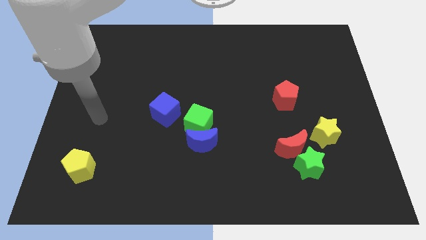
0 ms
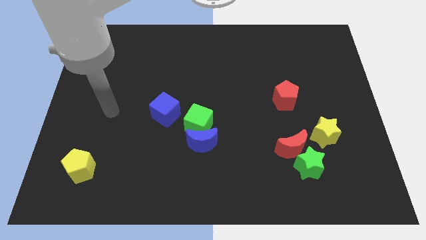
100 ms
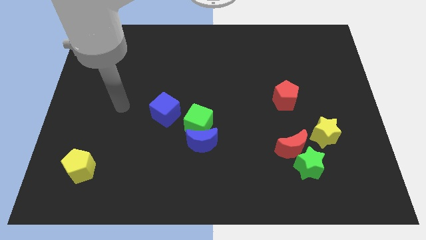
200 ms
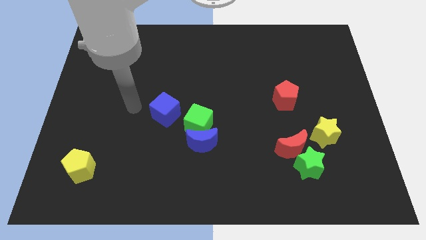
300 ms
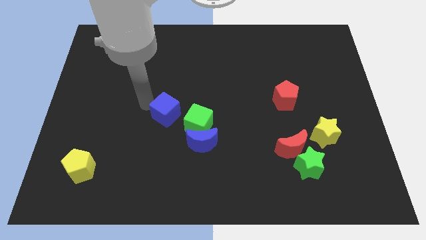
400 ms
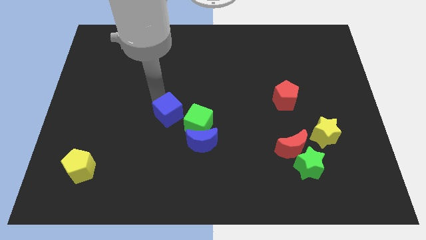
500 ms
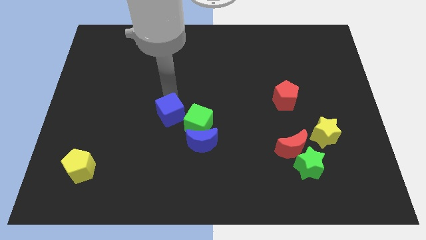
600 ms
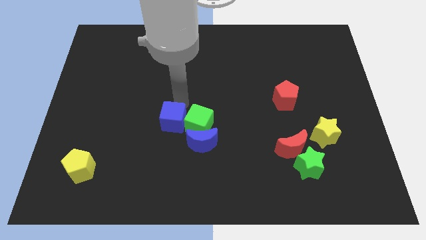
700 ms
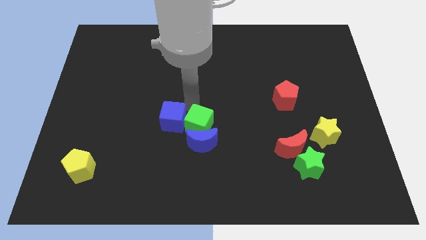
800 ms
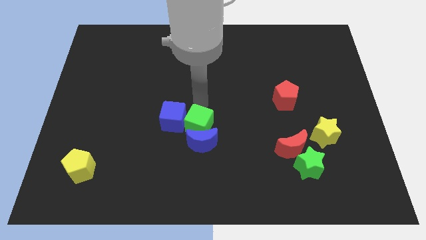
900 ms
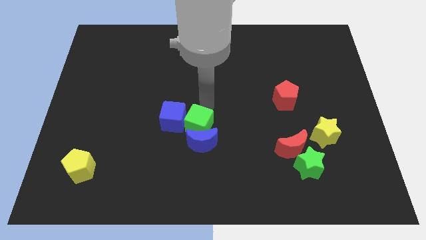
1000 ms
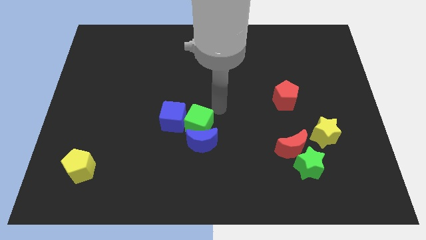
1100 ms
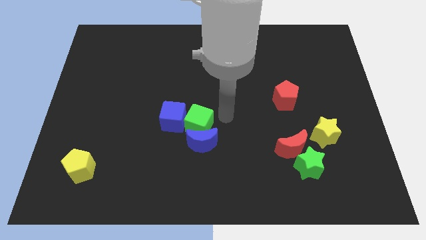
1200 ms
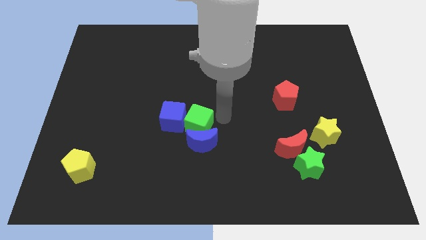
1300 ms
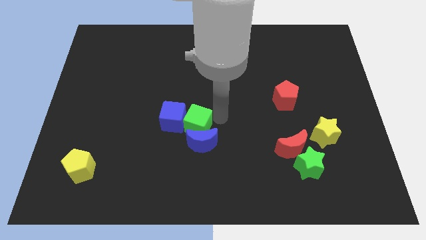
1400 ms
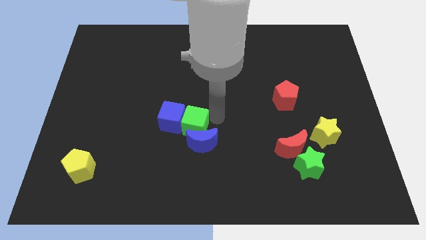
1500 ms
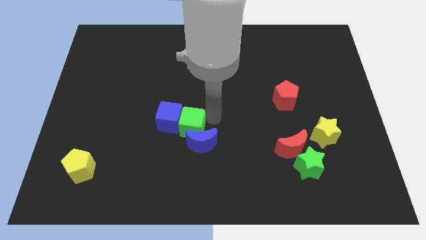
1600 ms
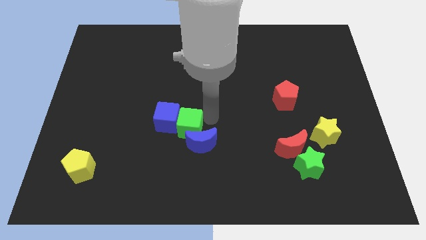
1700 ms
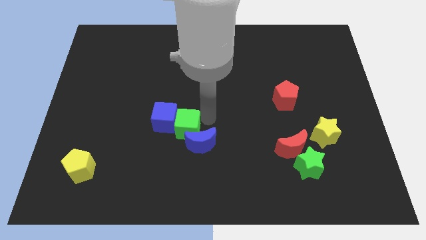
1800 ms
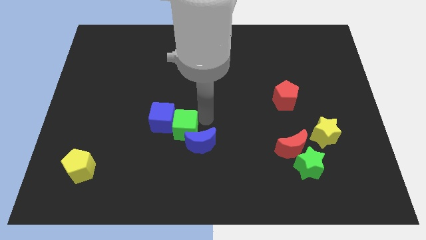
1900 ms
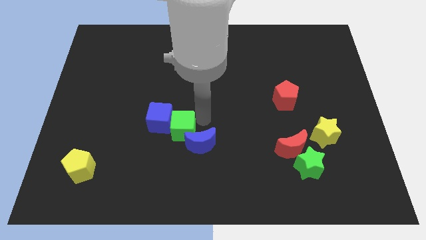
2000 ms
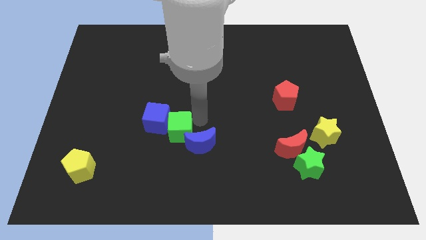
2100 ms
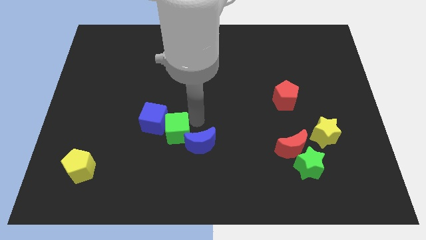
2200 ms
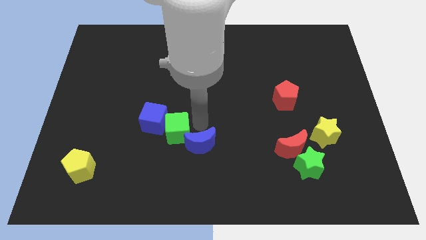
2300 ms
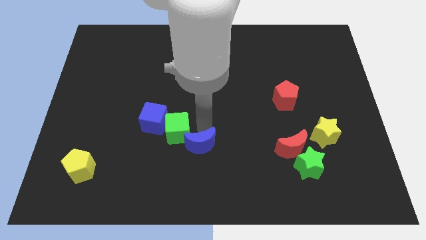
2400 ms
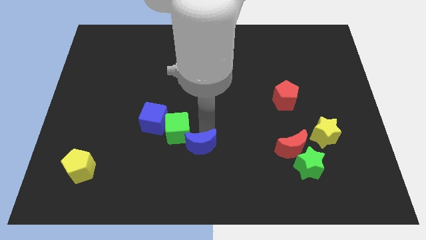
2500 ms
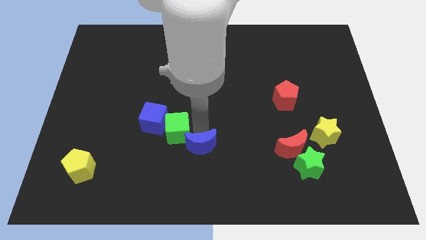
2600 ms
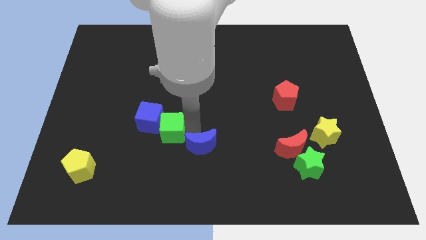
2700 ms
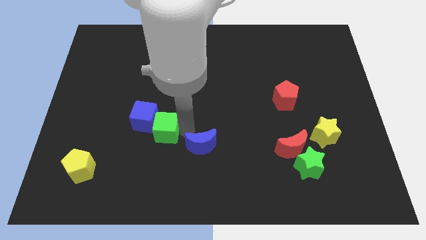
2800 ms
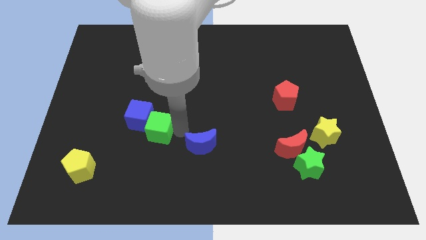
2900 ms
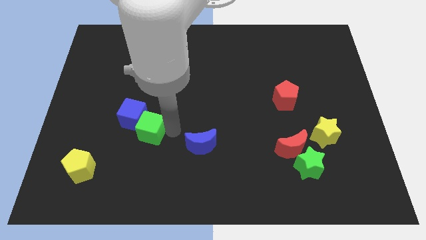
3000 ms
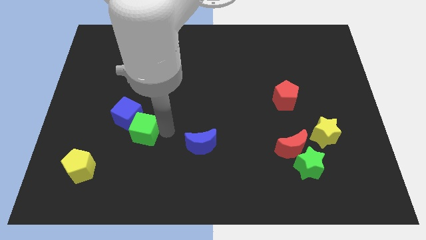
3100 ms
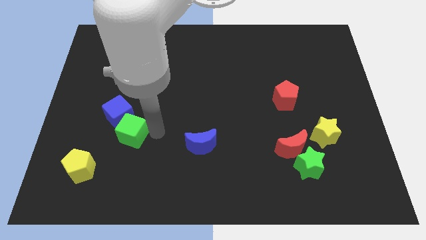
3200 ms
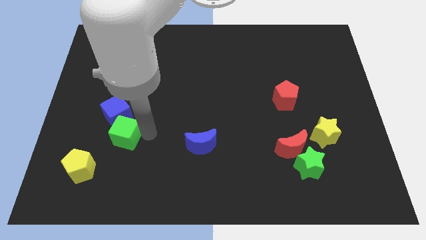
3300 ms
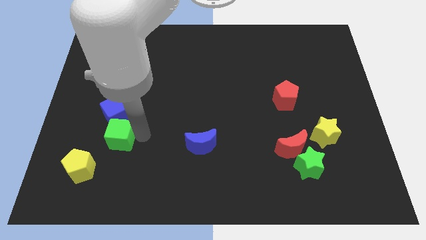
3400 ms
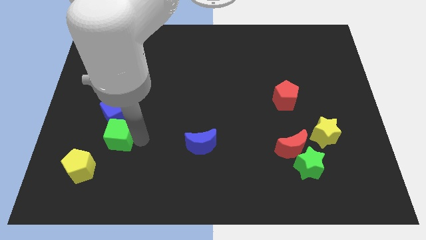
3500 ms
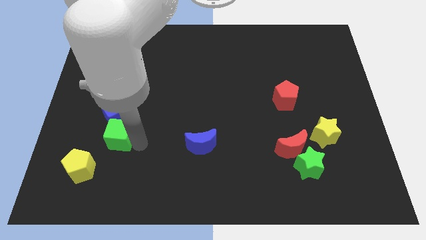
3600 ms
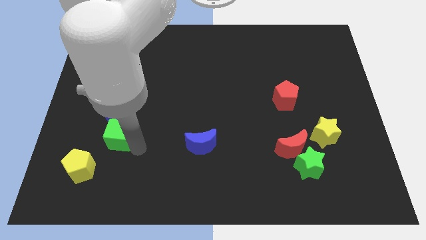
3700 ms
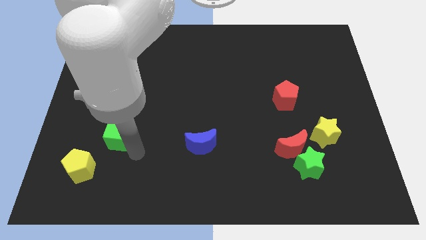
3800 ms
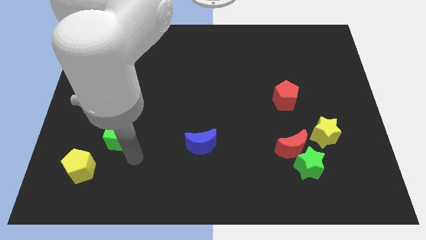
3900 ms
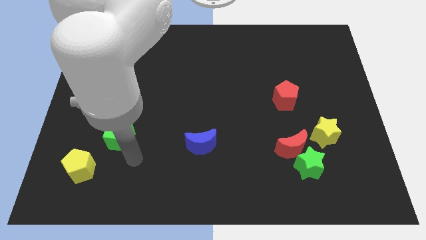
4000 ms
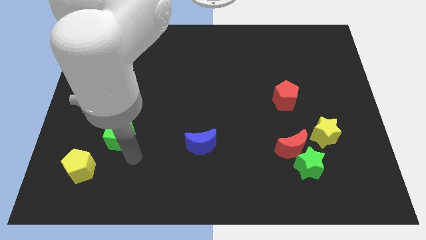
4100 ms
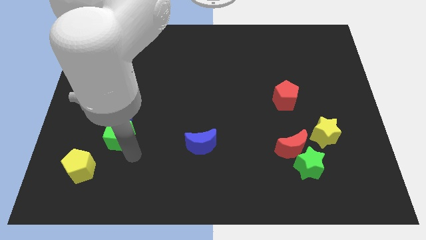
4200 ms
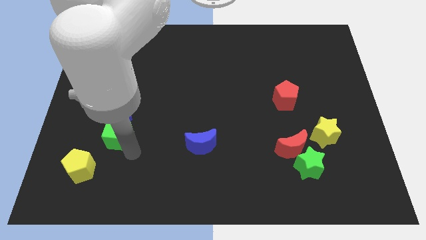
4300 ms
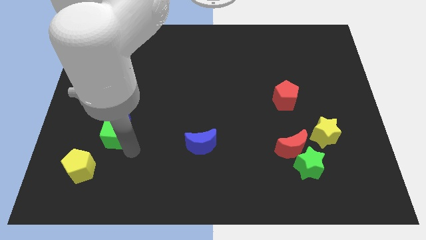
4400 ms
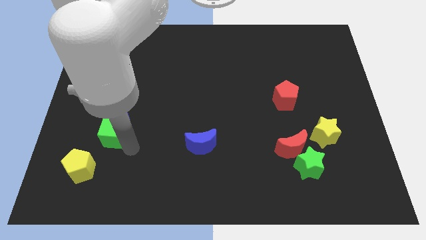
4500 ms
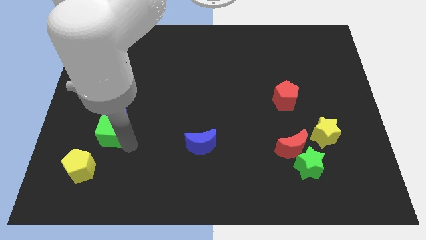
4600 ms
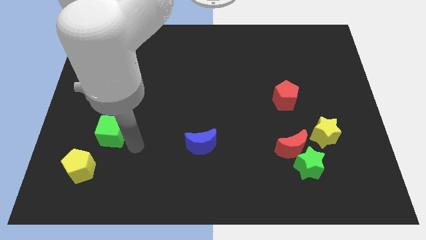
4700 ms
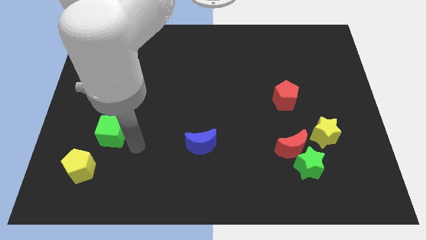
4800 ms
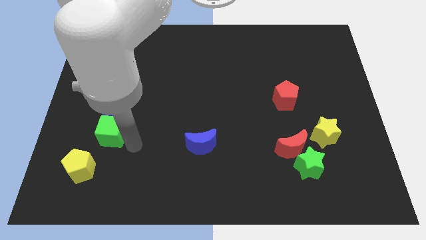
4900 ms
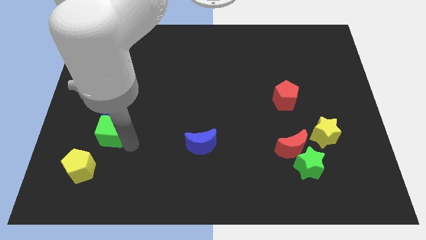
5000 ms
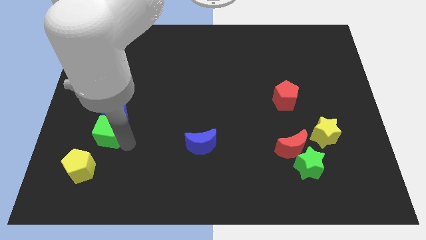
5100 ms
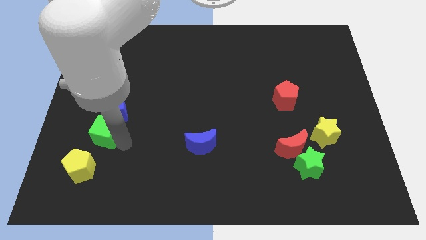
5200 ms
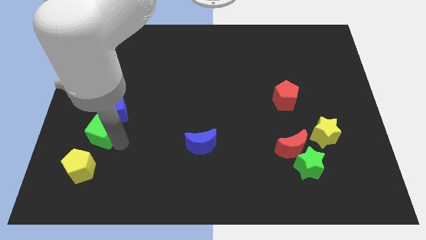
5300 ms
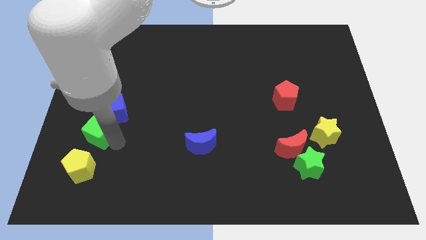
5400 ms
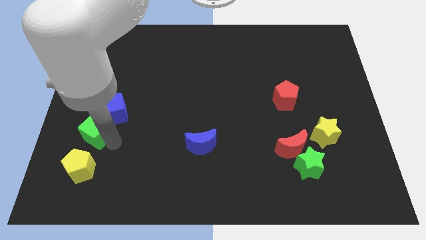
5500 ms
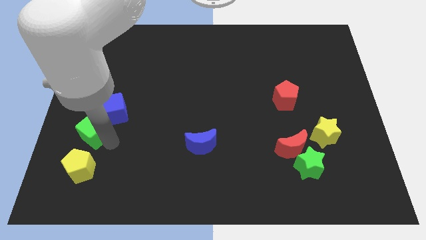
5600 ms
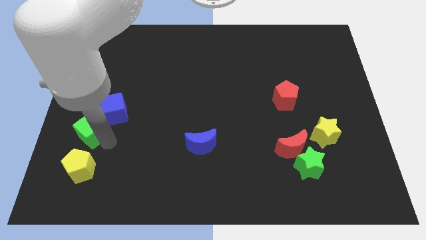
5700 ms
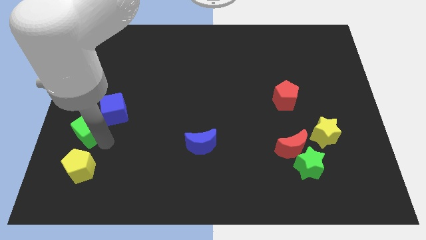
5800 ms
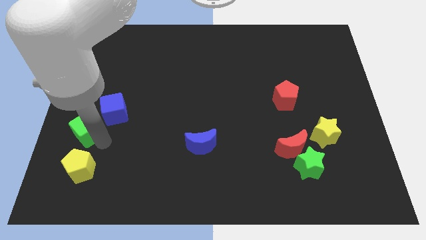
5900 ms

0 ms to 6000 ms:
move the green cube to the center left

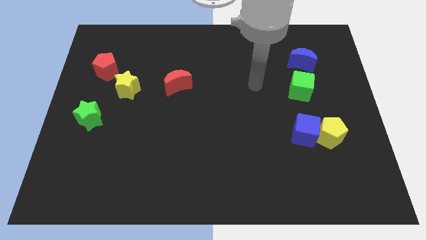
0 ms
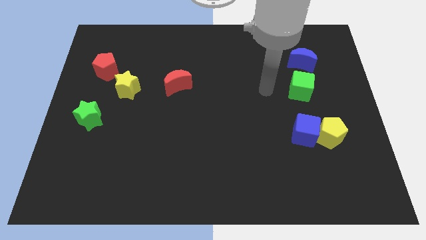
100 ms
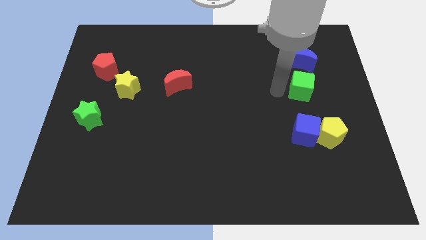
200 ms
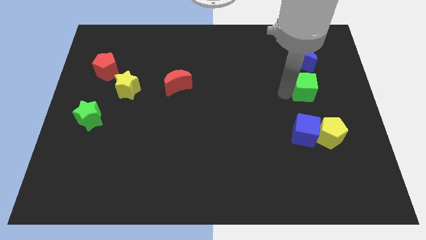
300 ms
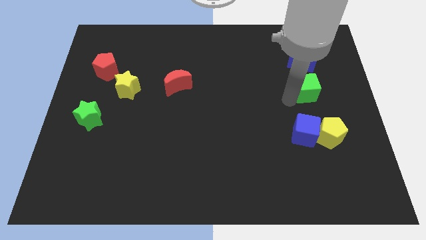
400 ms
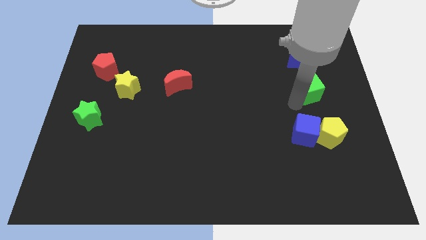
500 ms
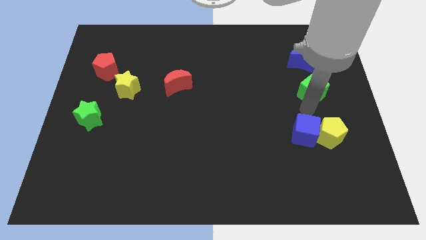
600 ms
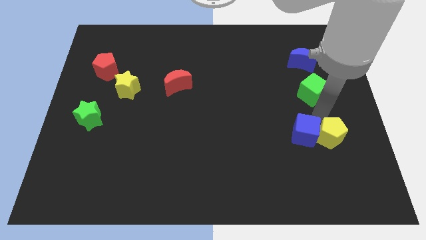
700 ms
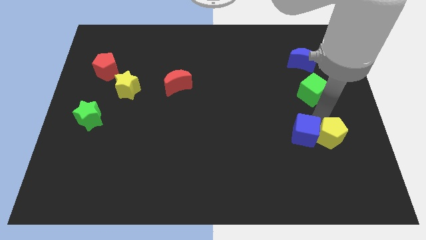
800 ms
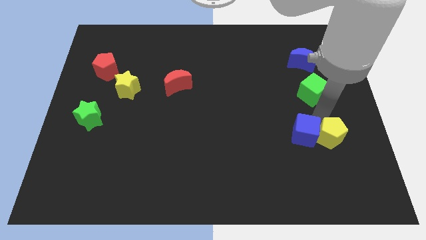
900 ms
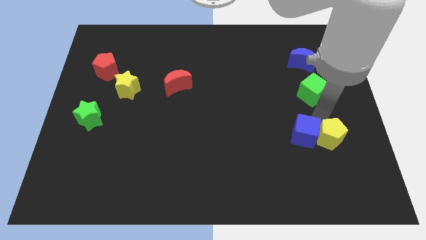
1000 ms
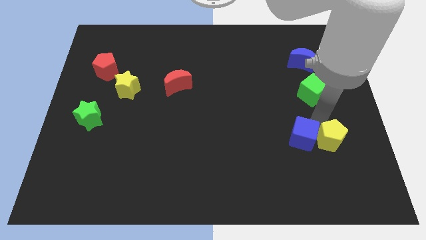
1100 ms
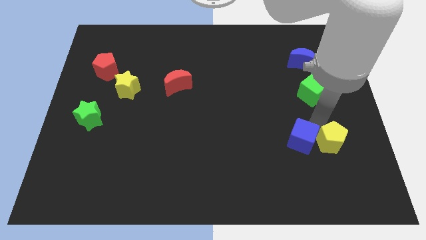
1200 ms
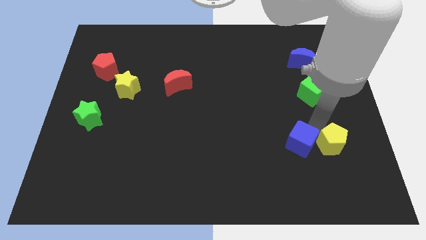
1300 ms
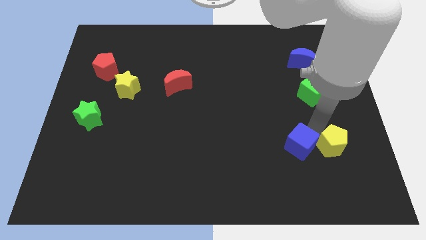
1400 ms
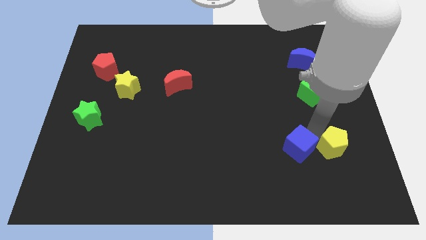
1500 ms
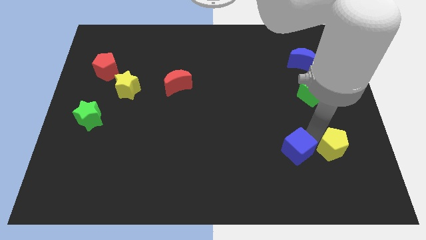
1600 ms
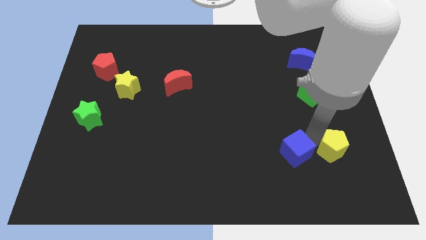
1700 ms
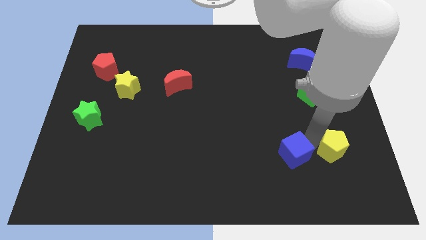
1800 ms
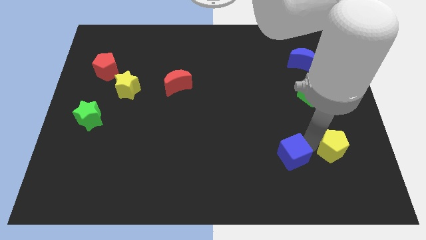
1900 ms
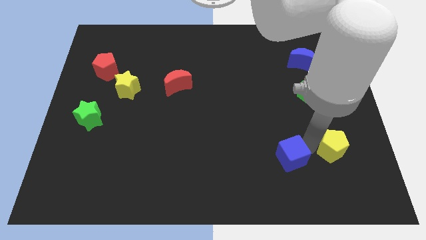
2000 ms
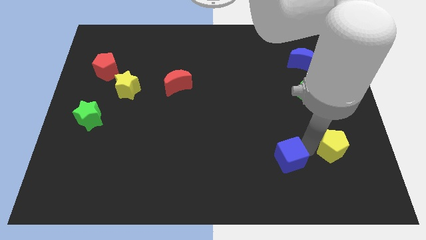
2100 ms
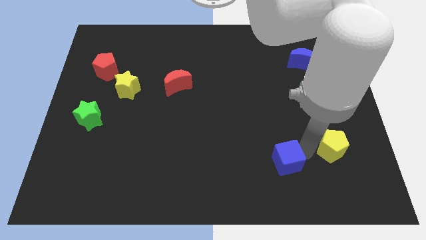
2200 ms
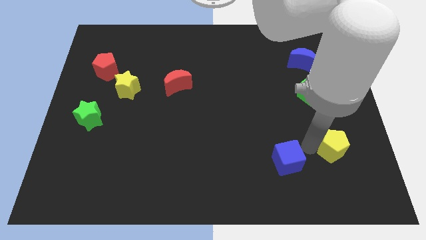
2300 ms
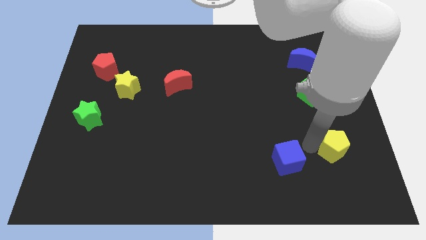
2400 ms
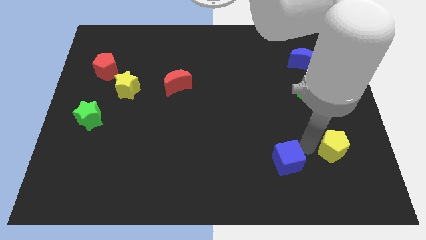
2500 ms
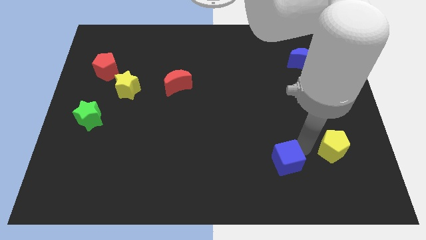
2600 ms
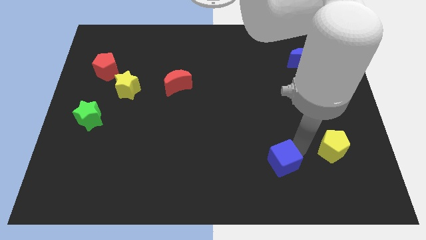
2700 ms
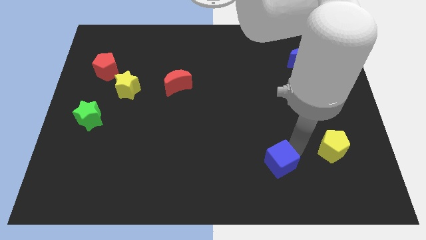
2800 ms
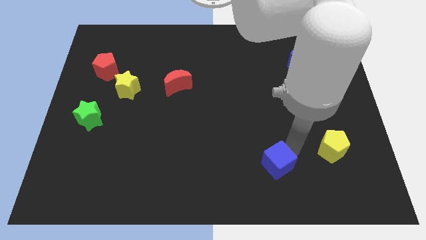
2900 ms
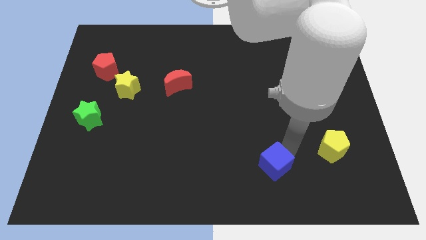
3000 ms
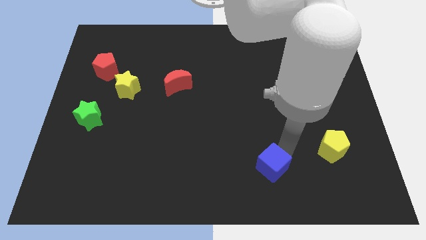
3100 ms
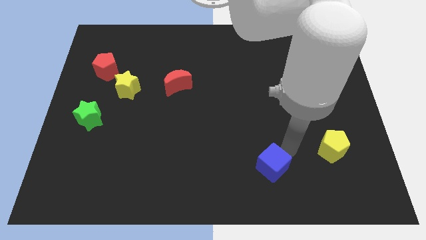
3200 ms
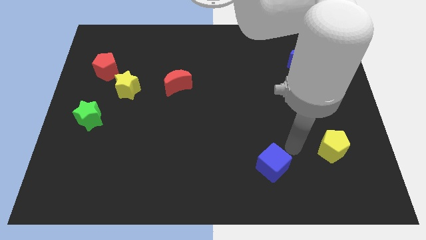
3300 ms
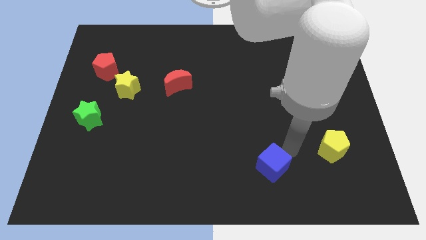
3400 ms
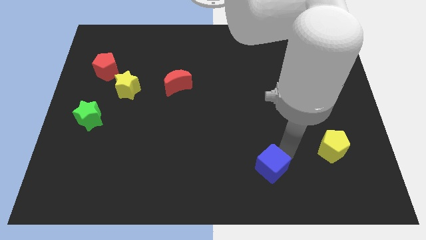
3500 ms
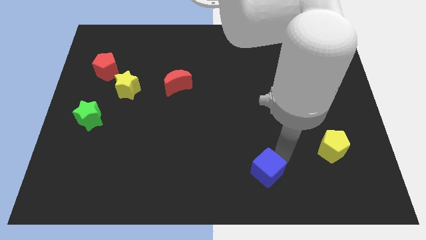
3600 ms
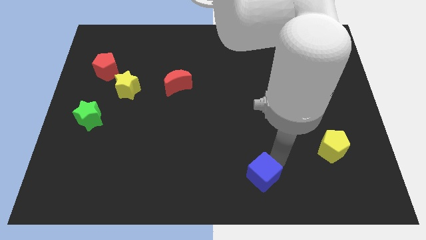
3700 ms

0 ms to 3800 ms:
push the blue cube to the bottom side
